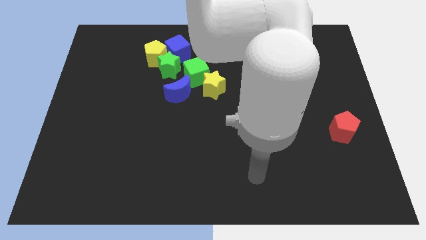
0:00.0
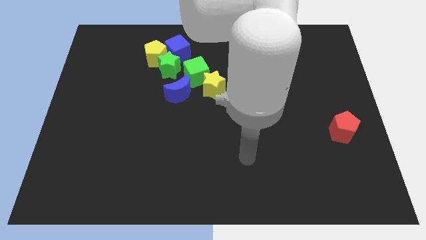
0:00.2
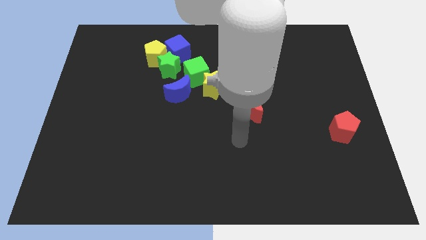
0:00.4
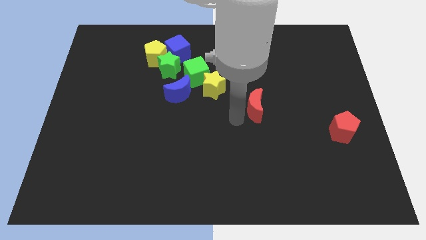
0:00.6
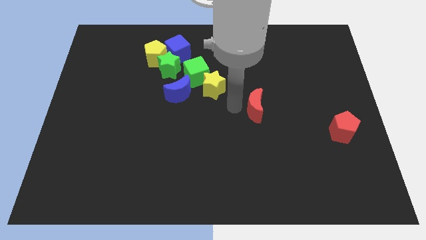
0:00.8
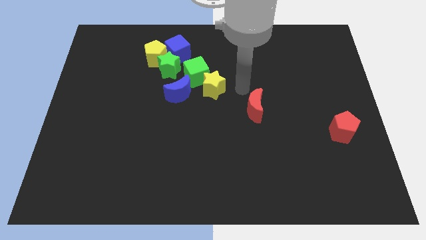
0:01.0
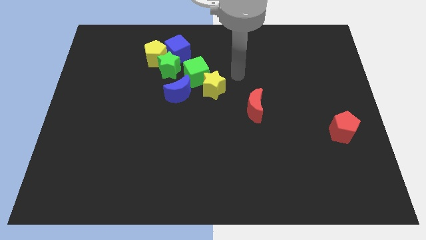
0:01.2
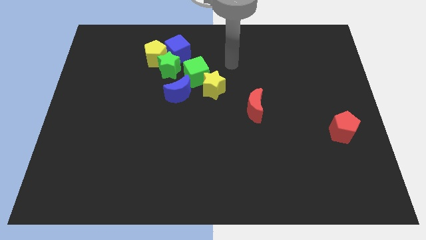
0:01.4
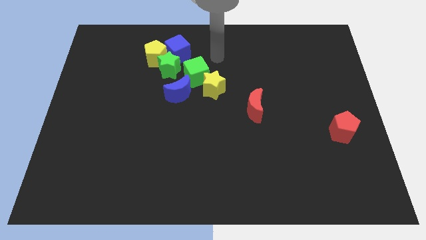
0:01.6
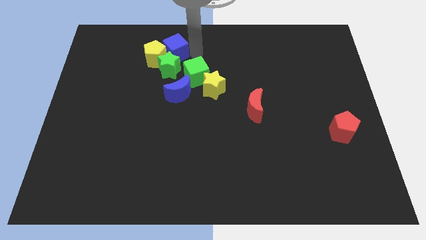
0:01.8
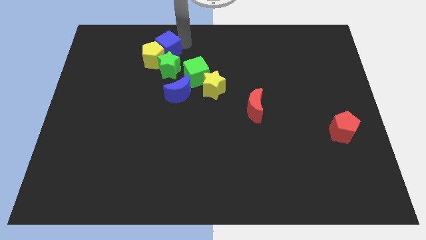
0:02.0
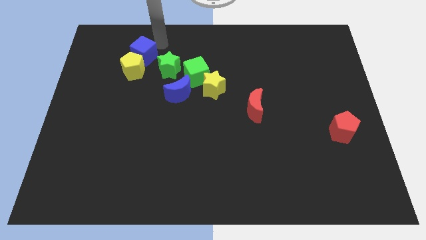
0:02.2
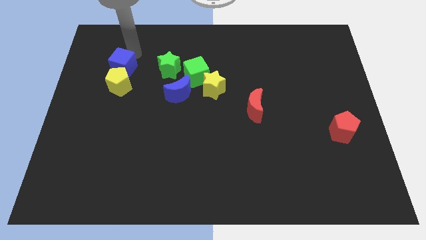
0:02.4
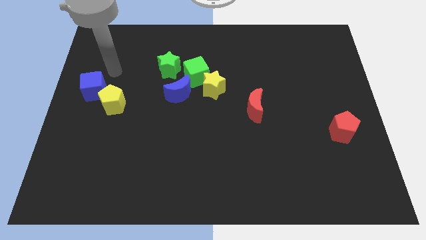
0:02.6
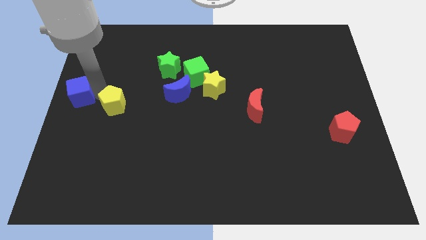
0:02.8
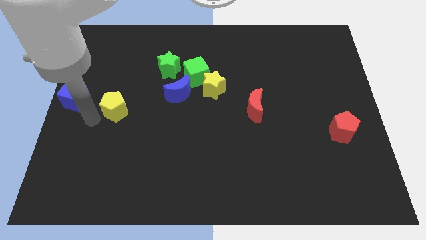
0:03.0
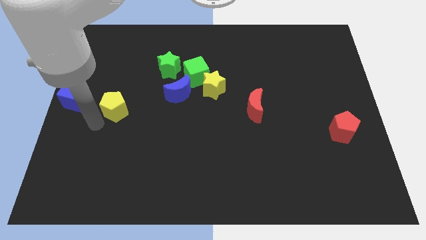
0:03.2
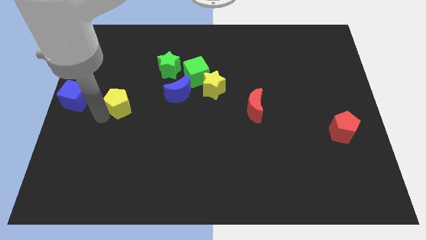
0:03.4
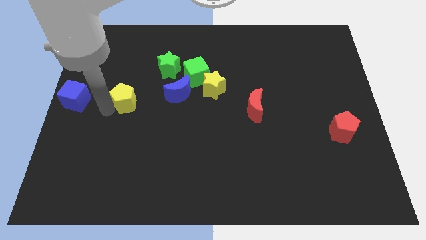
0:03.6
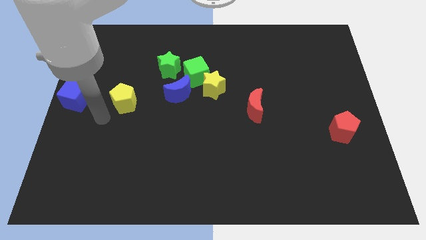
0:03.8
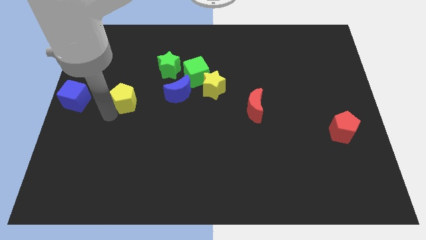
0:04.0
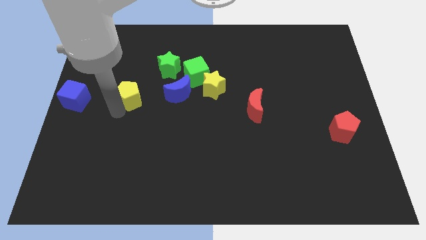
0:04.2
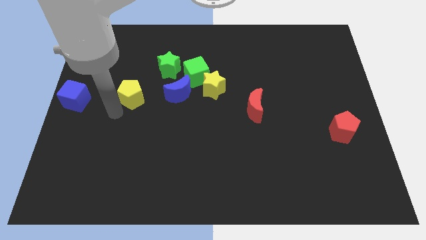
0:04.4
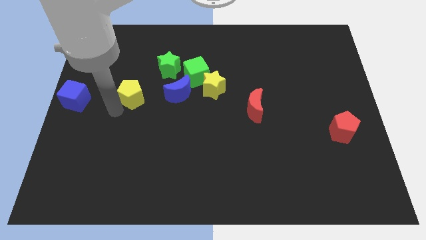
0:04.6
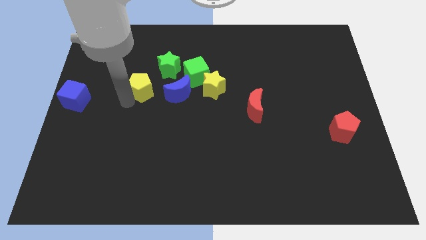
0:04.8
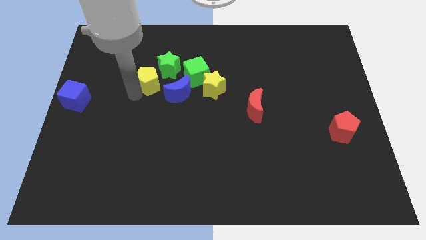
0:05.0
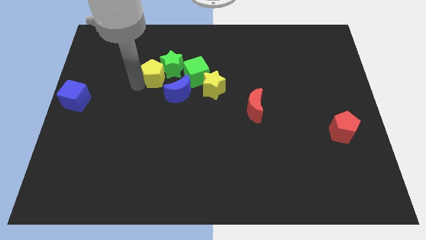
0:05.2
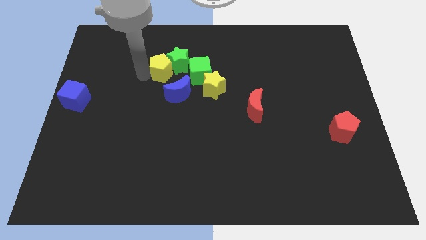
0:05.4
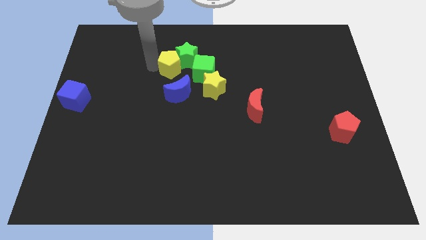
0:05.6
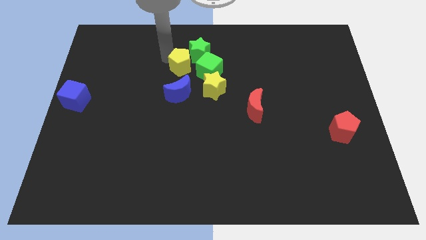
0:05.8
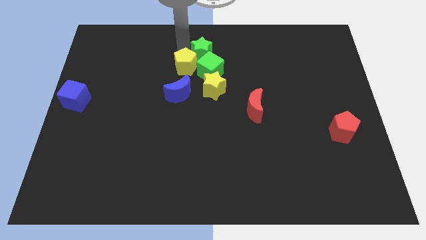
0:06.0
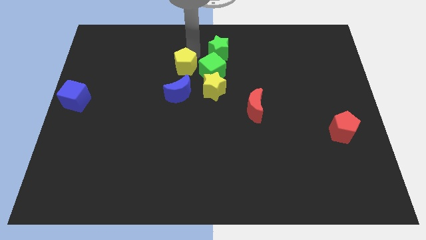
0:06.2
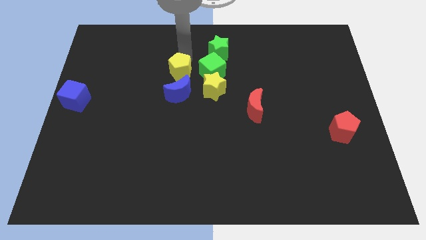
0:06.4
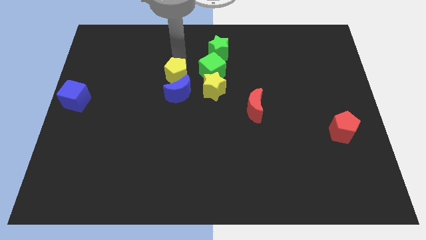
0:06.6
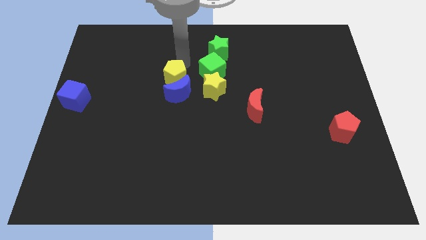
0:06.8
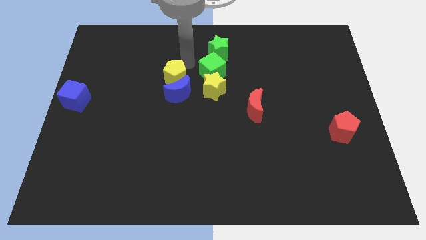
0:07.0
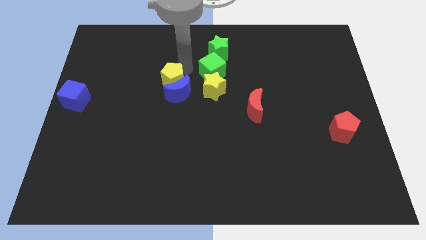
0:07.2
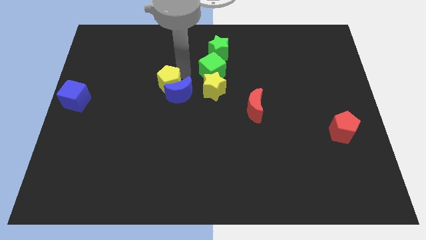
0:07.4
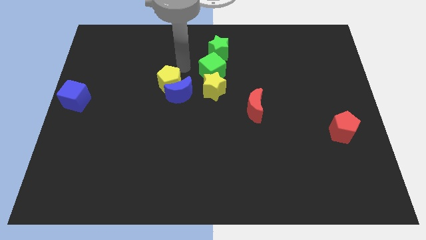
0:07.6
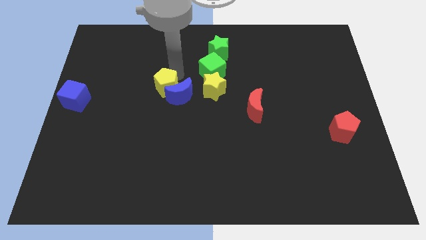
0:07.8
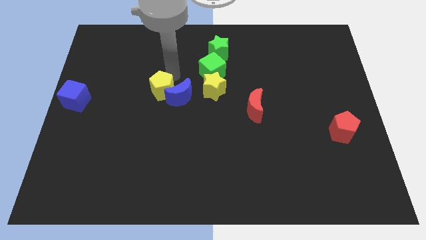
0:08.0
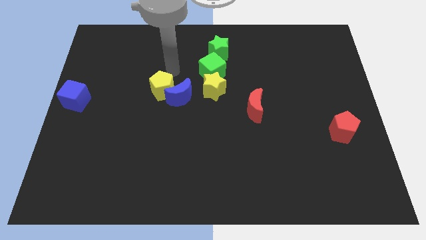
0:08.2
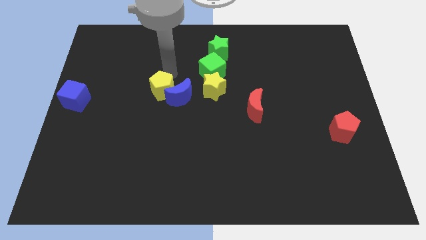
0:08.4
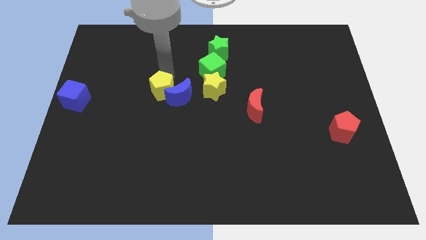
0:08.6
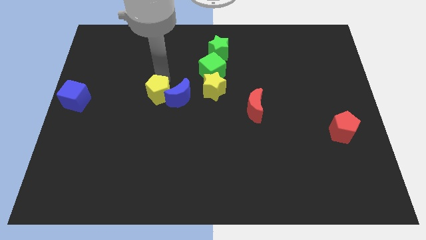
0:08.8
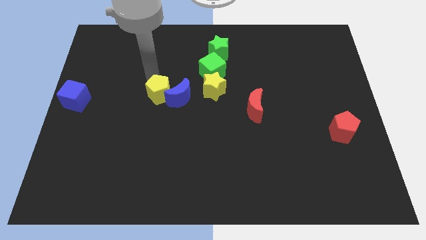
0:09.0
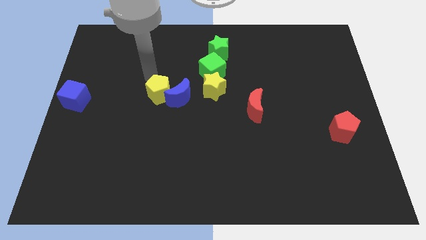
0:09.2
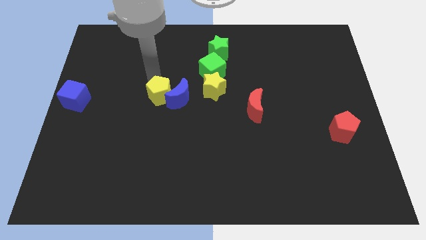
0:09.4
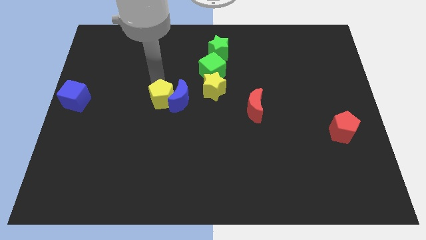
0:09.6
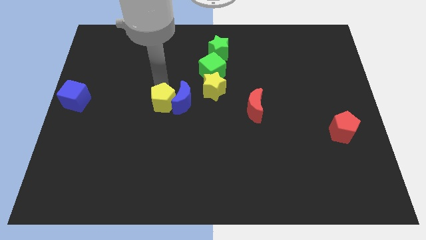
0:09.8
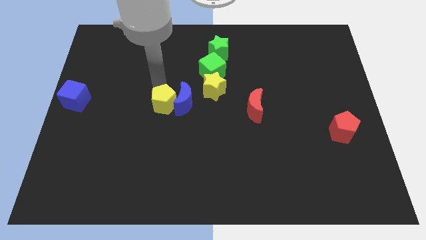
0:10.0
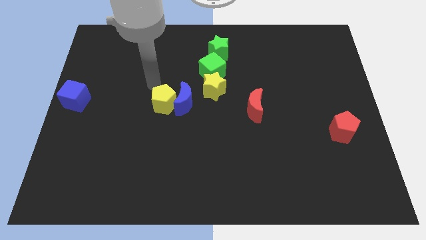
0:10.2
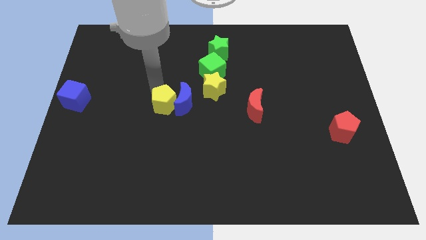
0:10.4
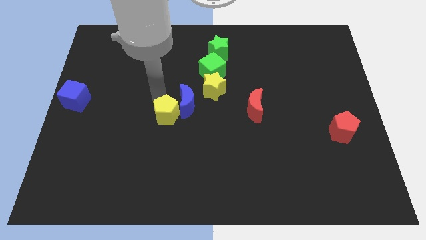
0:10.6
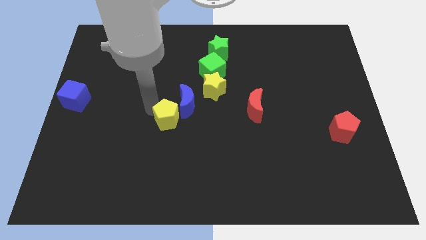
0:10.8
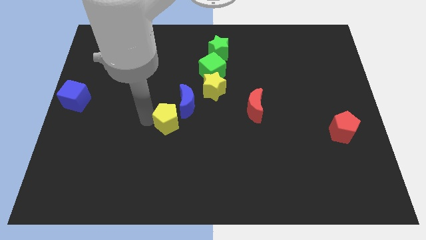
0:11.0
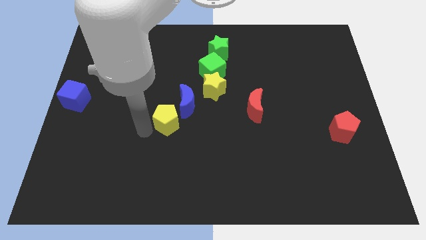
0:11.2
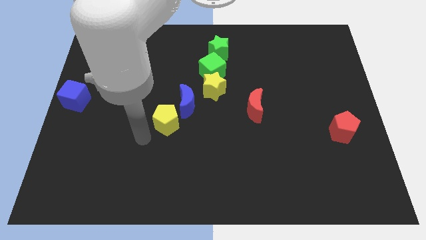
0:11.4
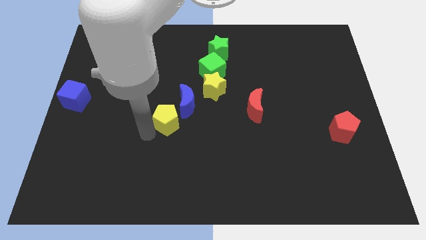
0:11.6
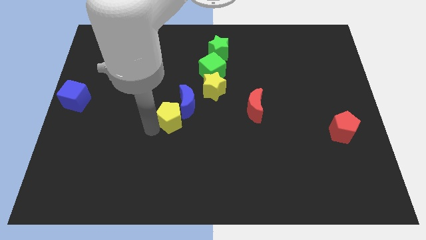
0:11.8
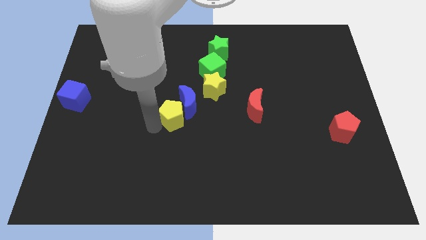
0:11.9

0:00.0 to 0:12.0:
put the yellow pentagon to the bottom left of the yellow star

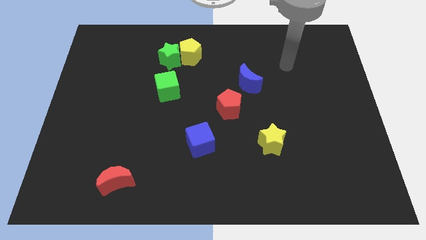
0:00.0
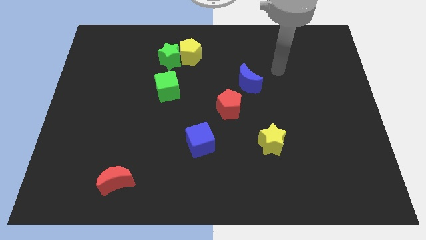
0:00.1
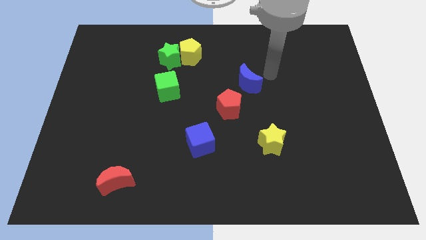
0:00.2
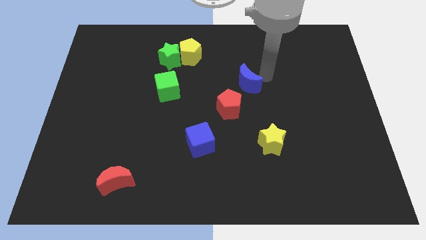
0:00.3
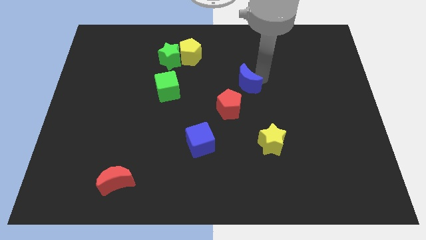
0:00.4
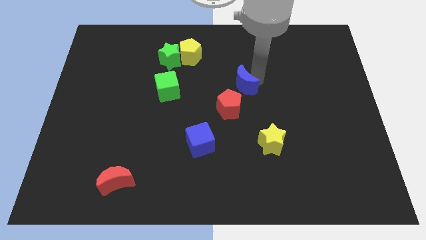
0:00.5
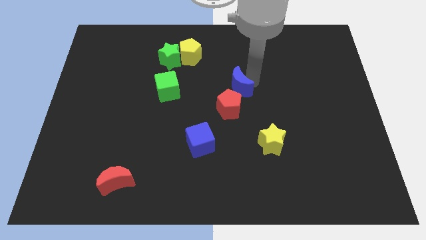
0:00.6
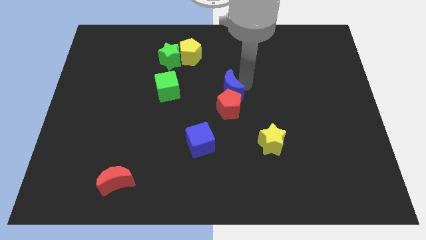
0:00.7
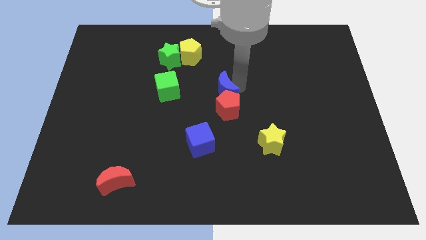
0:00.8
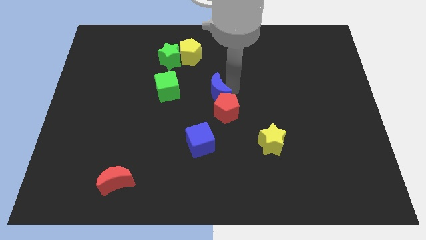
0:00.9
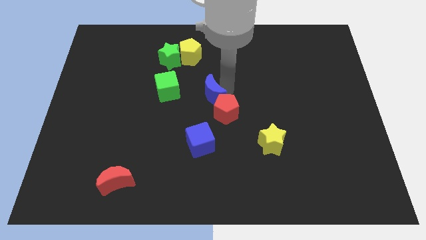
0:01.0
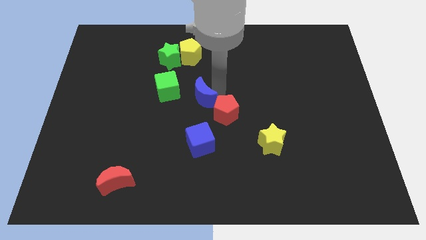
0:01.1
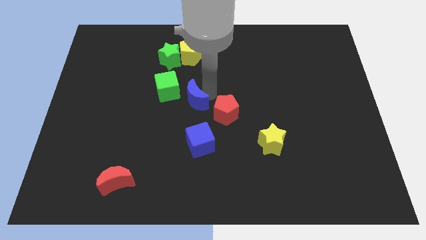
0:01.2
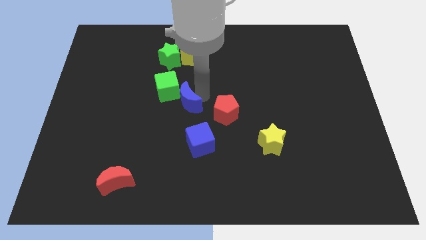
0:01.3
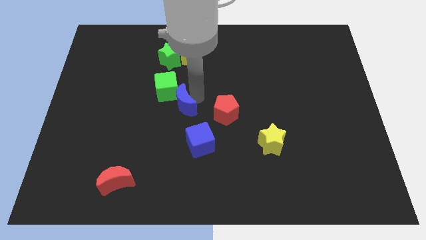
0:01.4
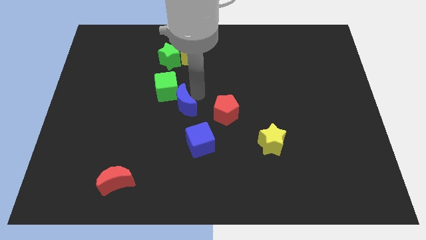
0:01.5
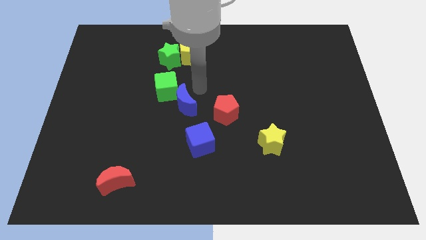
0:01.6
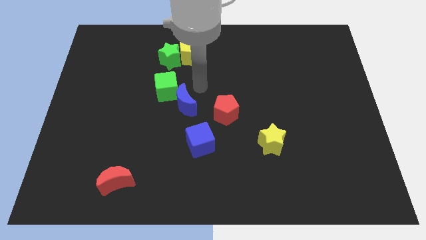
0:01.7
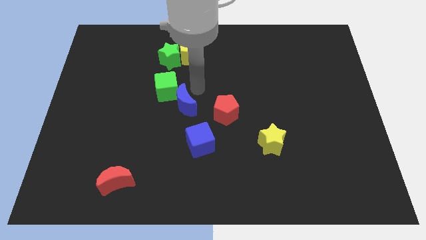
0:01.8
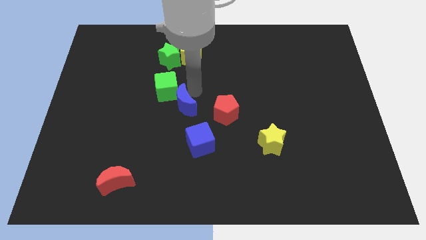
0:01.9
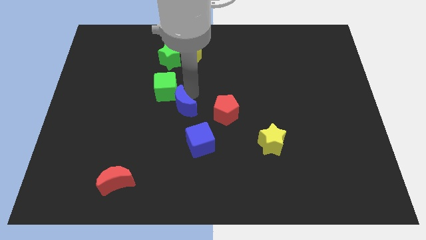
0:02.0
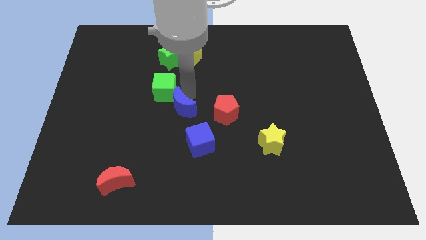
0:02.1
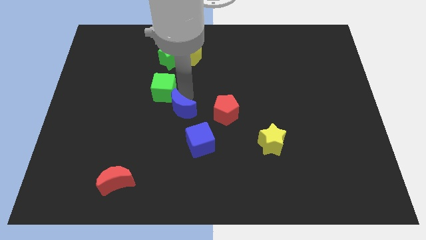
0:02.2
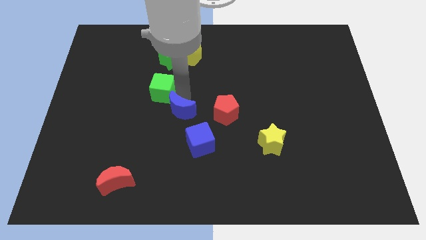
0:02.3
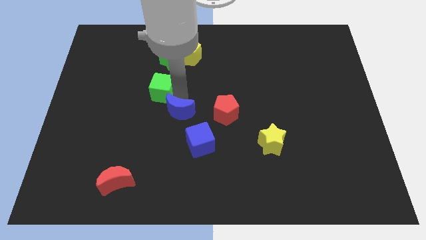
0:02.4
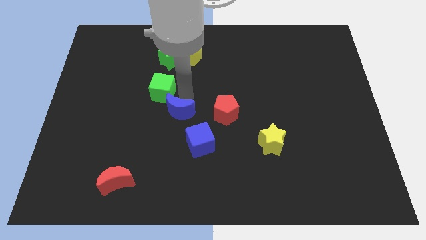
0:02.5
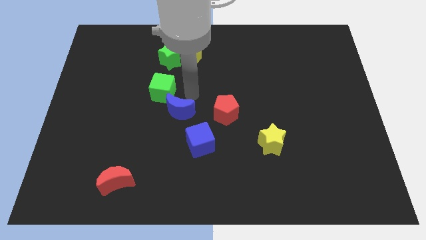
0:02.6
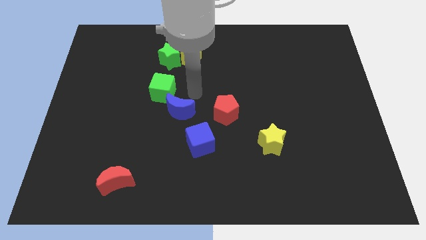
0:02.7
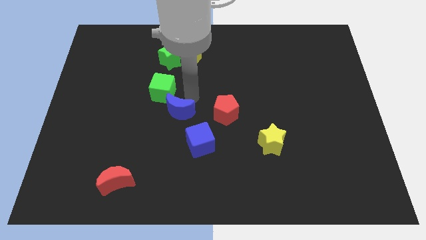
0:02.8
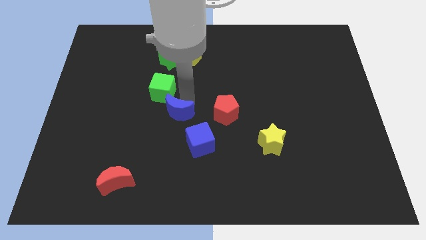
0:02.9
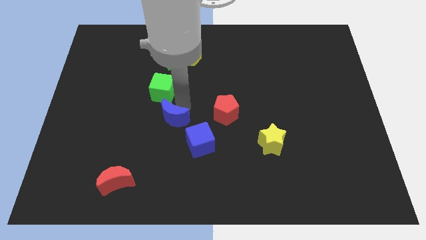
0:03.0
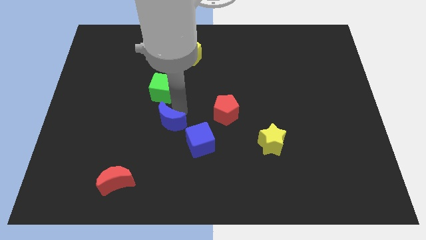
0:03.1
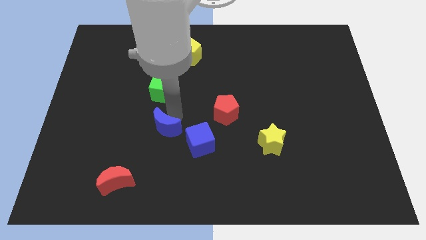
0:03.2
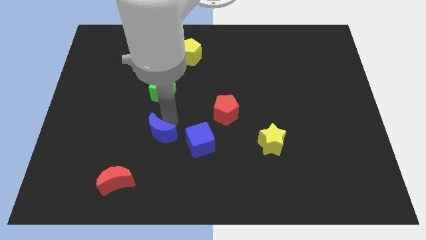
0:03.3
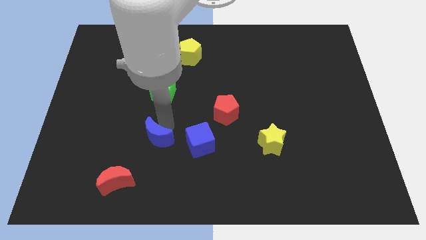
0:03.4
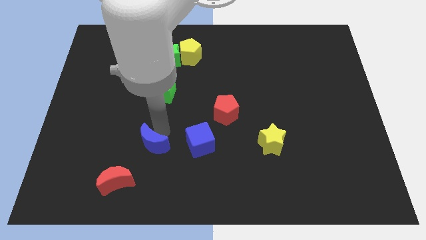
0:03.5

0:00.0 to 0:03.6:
push the blue moon diagonally up and to the right of the red moon
